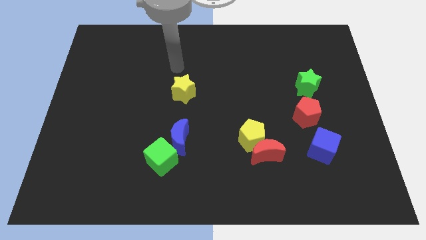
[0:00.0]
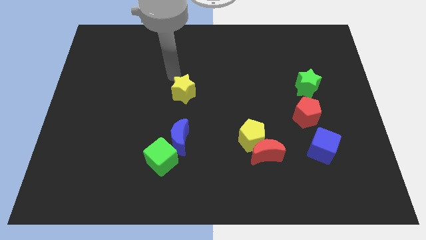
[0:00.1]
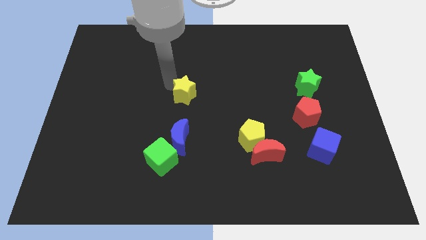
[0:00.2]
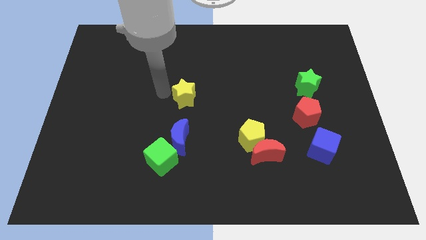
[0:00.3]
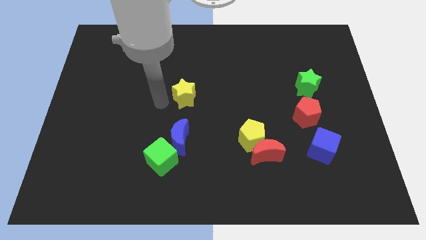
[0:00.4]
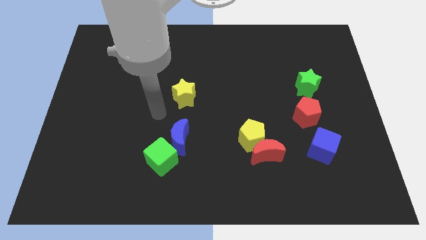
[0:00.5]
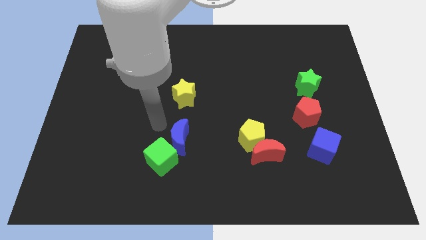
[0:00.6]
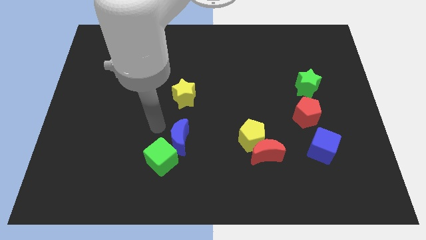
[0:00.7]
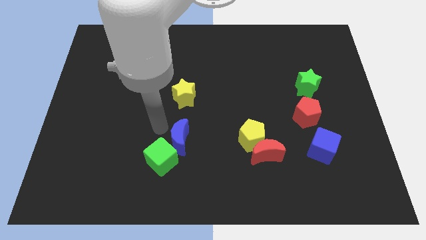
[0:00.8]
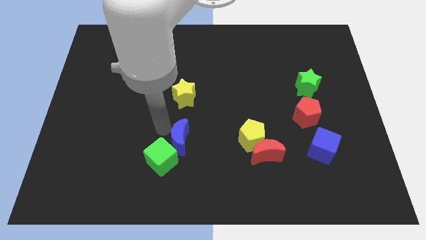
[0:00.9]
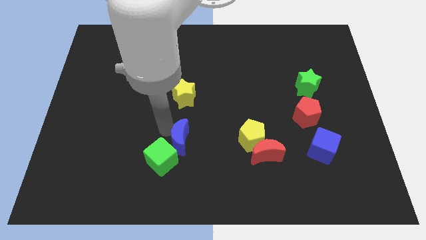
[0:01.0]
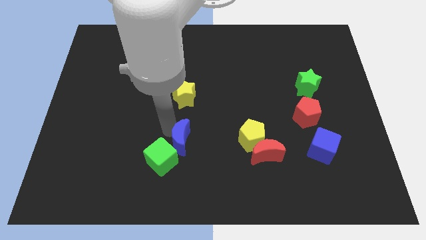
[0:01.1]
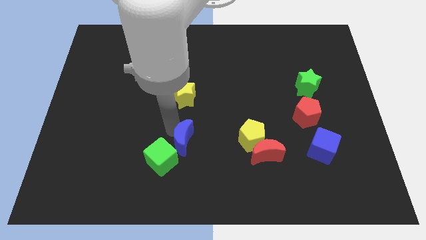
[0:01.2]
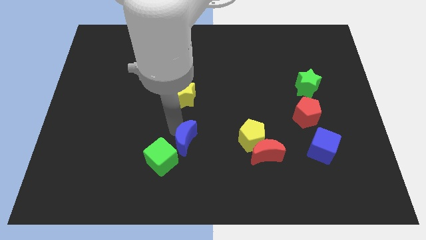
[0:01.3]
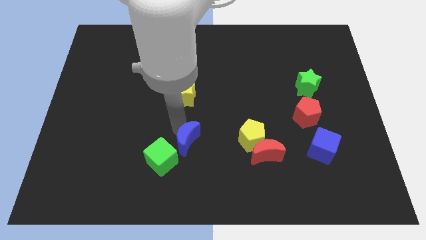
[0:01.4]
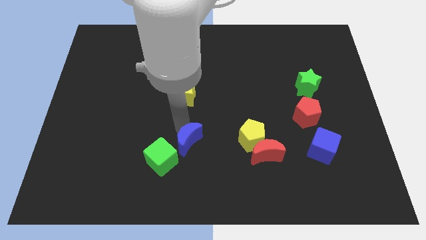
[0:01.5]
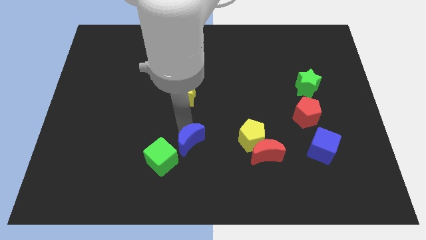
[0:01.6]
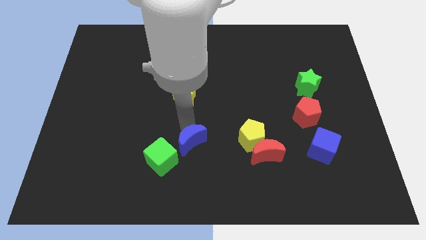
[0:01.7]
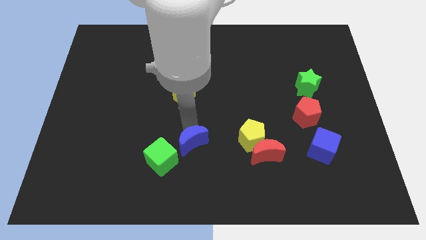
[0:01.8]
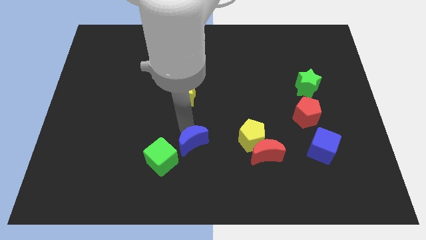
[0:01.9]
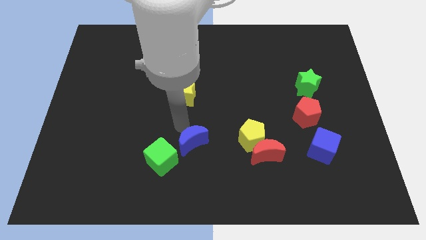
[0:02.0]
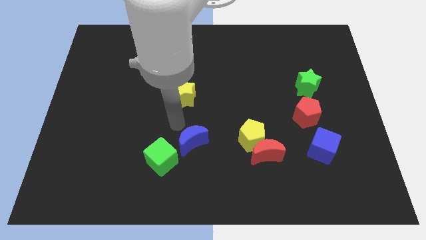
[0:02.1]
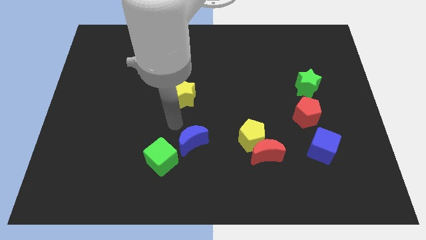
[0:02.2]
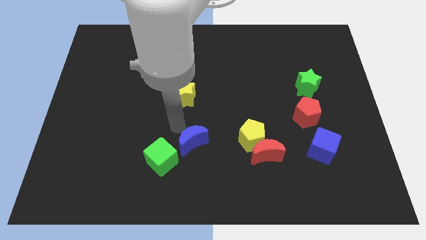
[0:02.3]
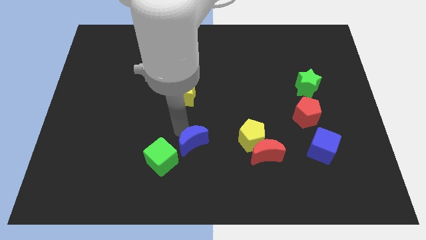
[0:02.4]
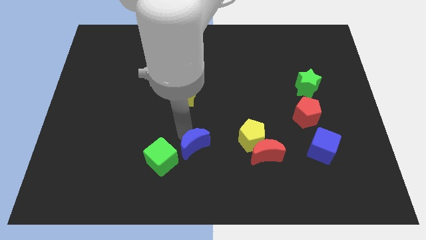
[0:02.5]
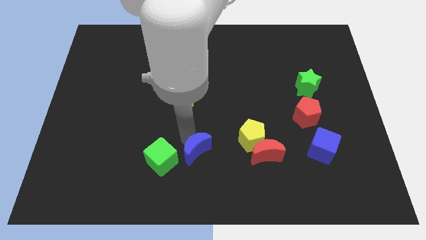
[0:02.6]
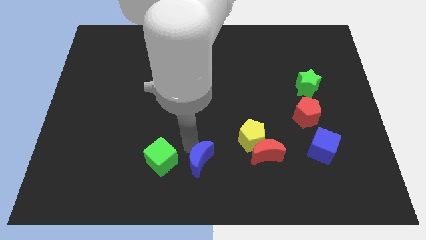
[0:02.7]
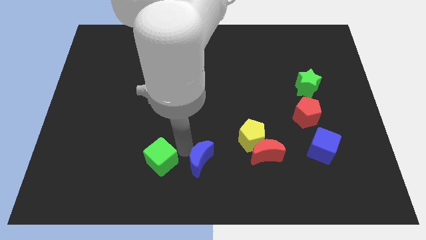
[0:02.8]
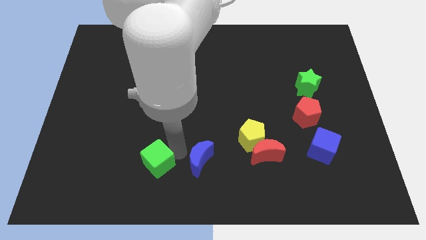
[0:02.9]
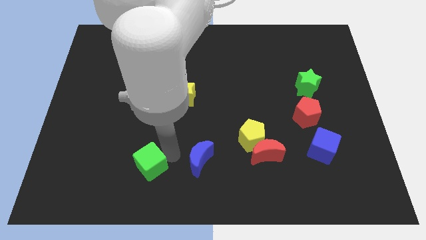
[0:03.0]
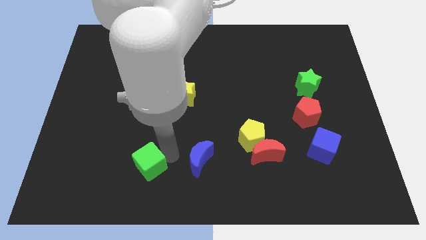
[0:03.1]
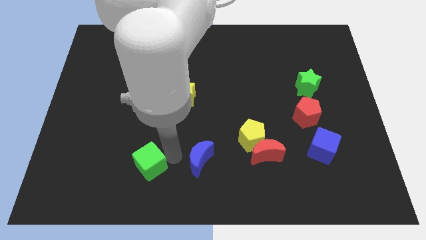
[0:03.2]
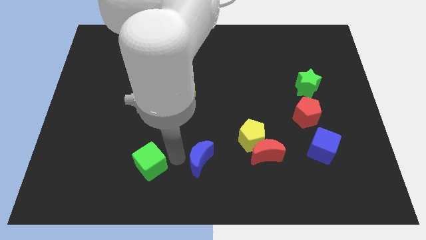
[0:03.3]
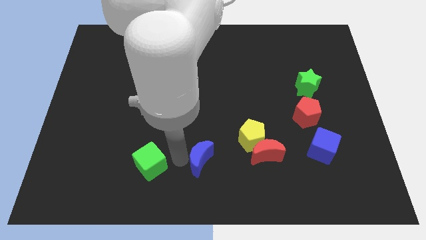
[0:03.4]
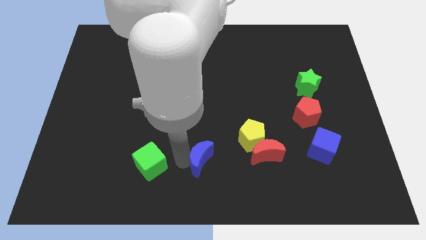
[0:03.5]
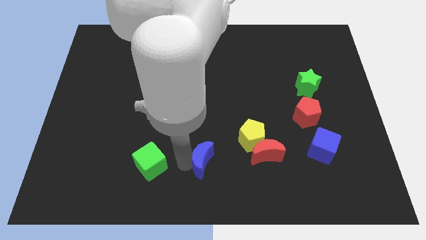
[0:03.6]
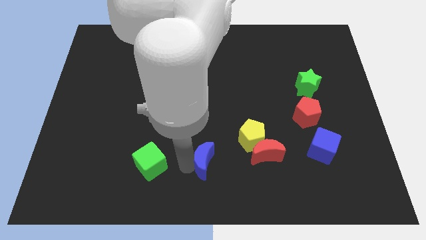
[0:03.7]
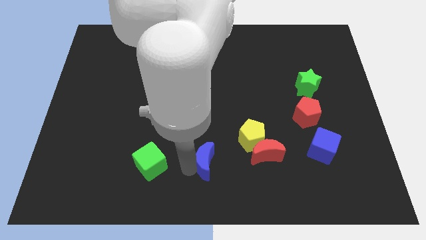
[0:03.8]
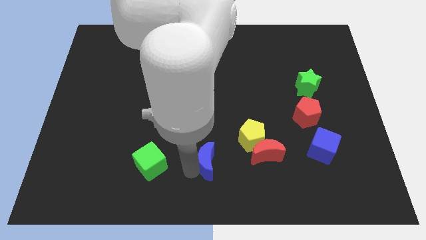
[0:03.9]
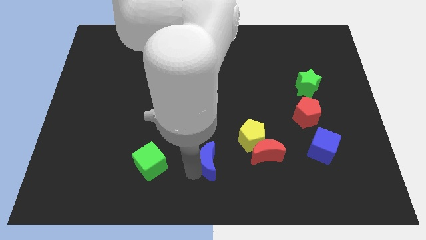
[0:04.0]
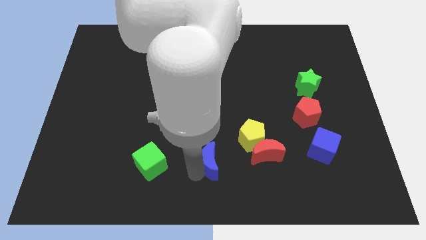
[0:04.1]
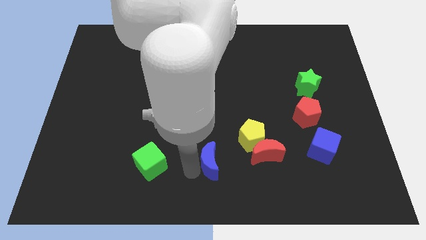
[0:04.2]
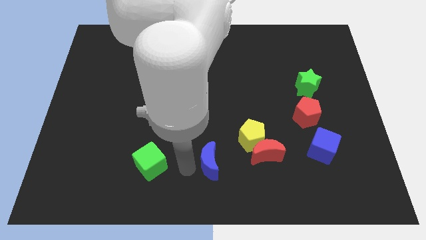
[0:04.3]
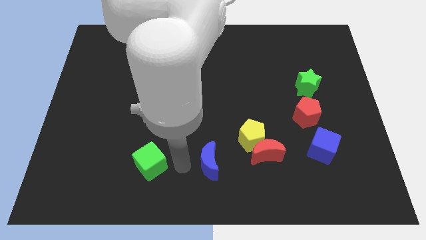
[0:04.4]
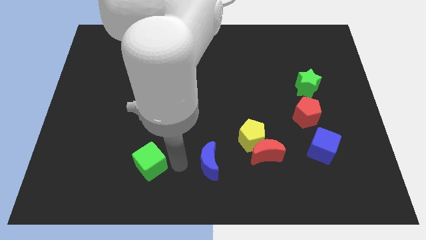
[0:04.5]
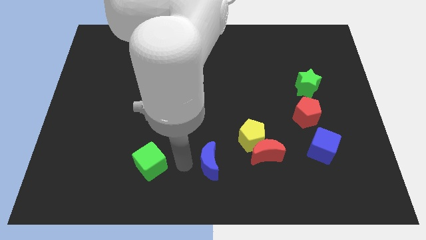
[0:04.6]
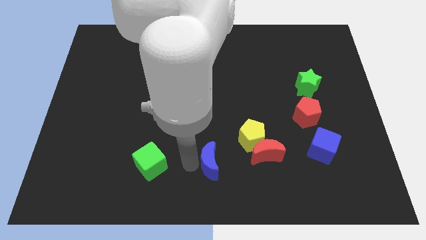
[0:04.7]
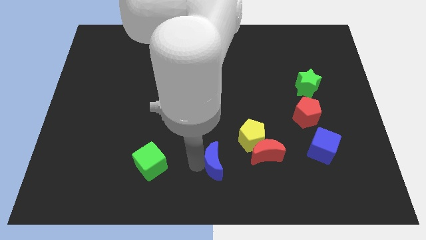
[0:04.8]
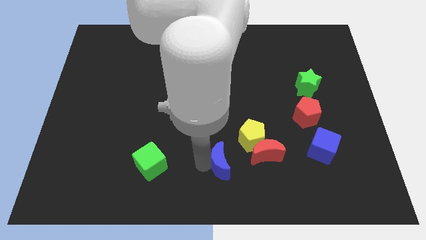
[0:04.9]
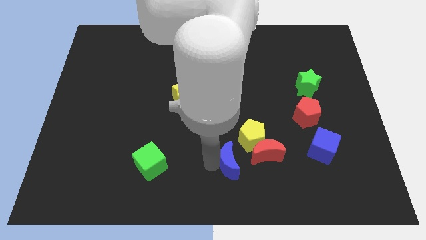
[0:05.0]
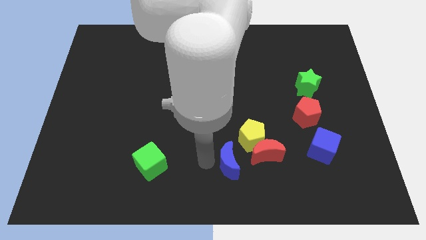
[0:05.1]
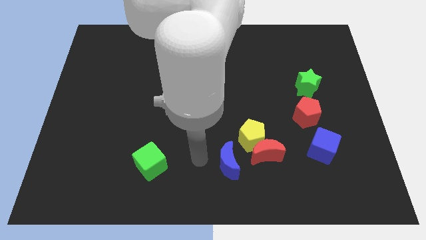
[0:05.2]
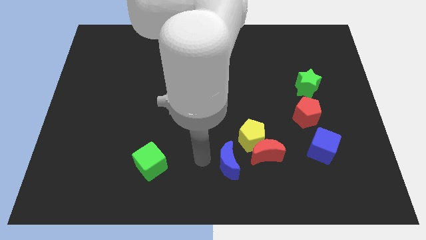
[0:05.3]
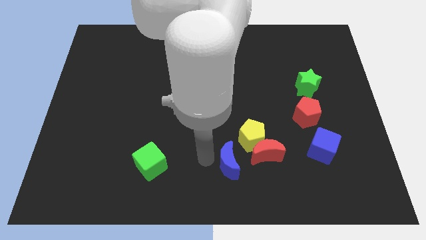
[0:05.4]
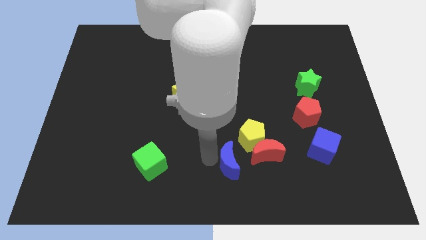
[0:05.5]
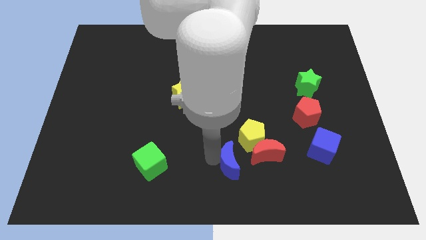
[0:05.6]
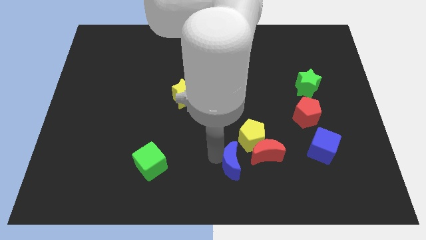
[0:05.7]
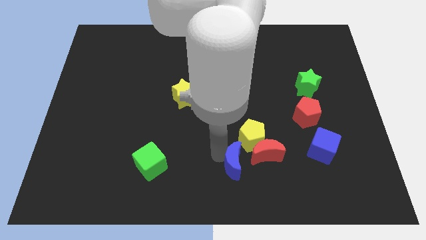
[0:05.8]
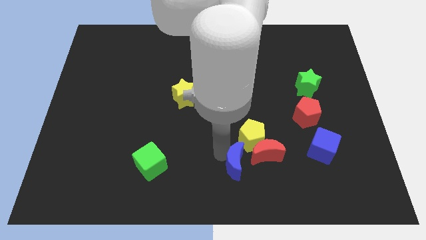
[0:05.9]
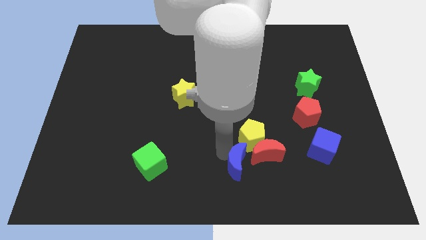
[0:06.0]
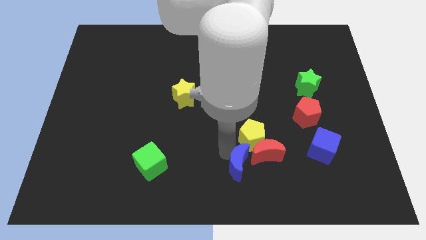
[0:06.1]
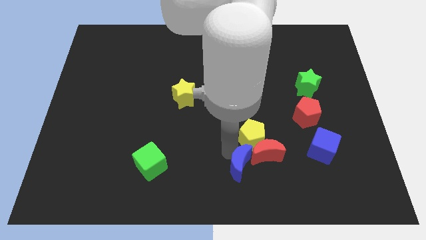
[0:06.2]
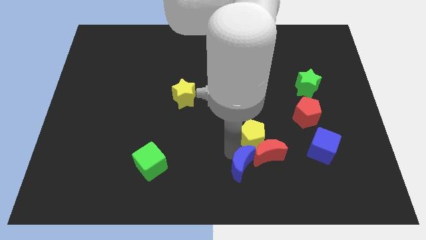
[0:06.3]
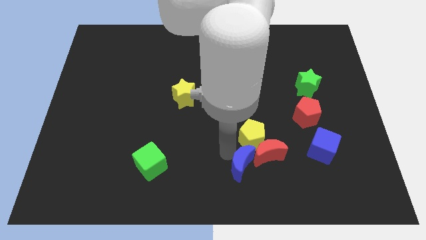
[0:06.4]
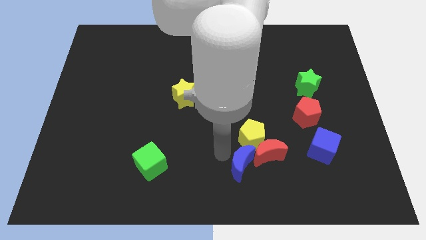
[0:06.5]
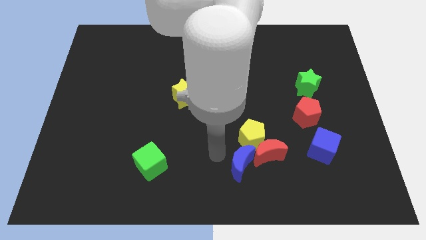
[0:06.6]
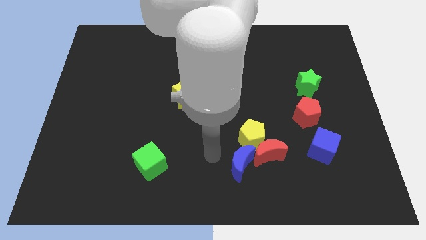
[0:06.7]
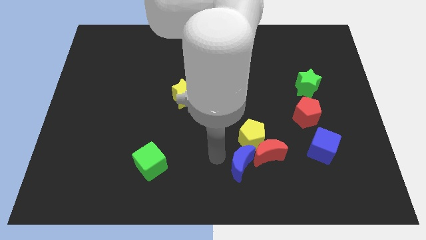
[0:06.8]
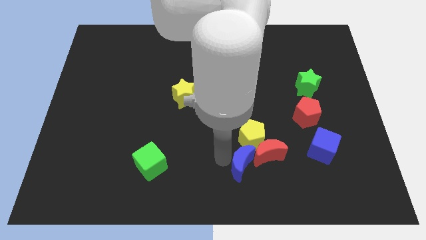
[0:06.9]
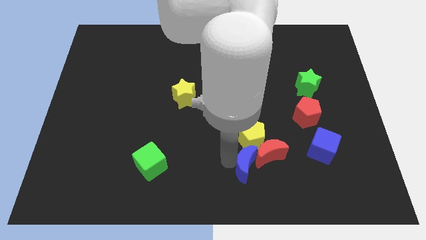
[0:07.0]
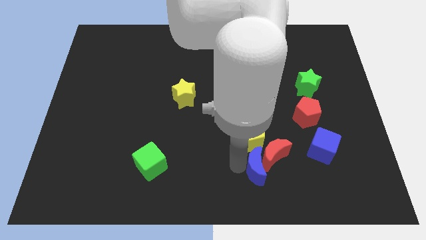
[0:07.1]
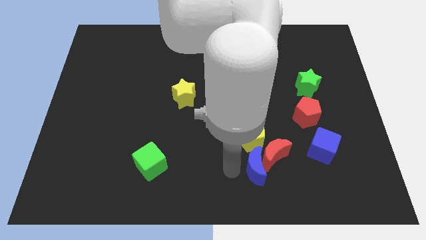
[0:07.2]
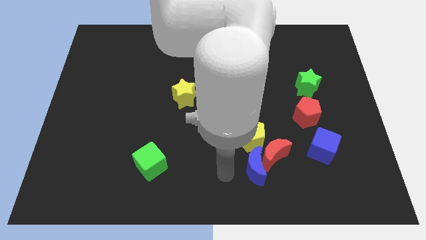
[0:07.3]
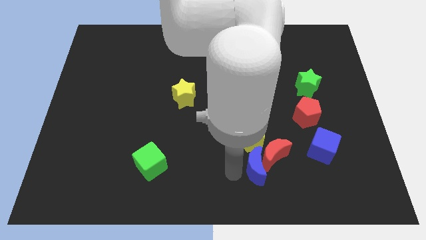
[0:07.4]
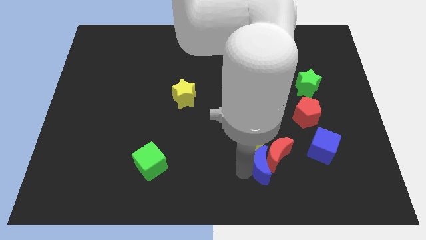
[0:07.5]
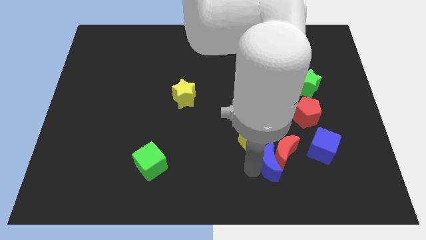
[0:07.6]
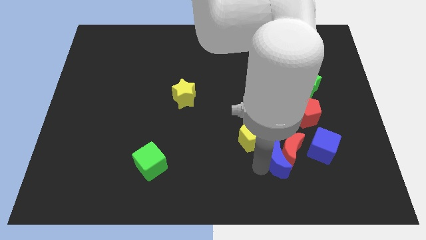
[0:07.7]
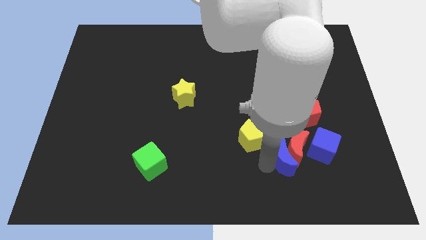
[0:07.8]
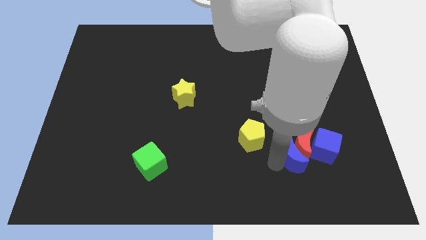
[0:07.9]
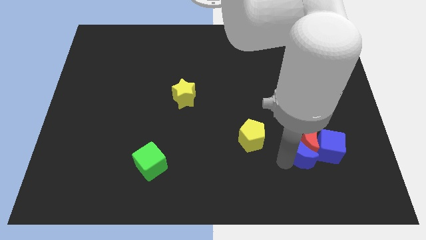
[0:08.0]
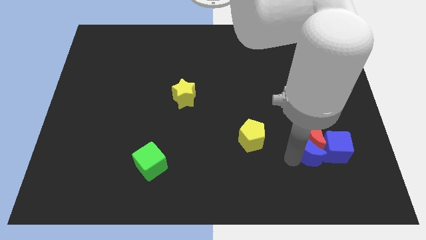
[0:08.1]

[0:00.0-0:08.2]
push the blue moon next to the blue cube
